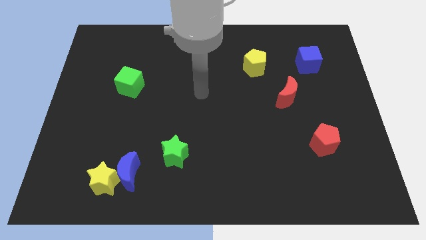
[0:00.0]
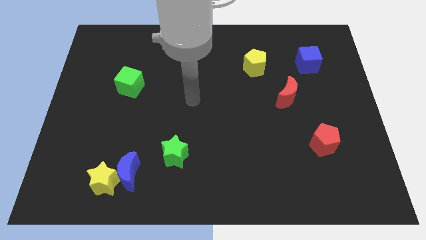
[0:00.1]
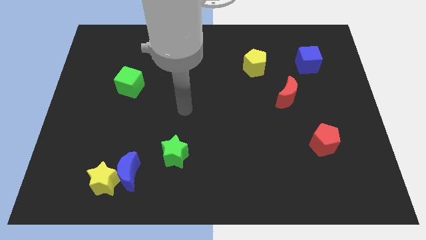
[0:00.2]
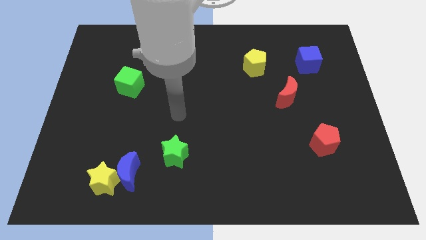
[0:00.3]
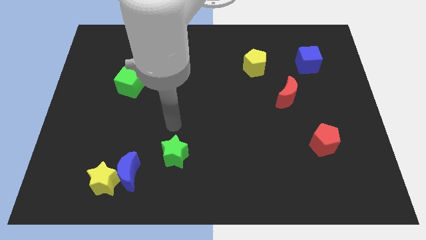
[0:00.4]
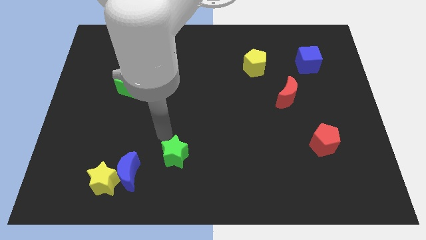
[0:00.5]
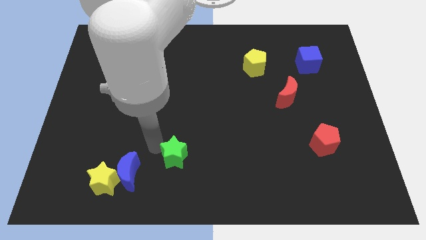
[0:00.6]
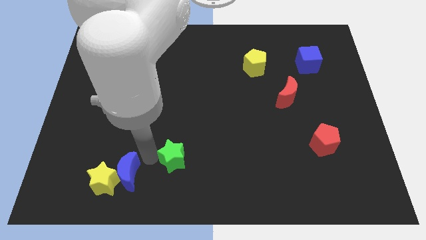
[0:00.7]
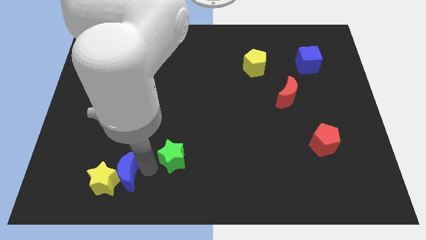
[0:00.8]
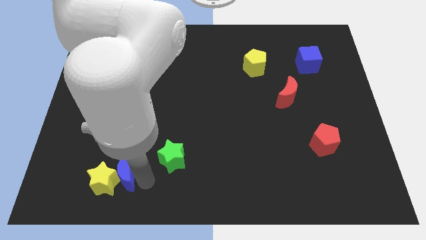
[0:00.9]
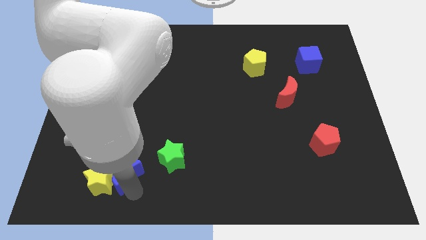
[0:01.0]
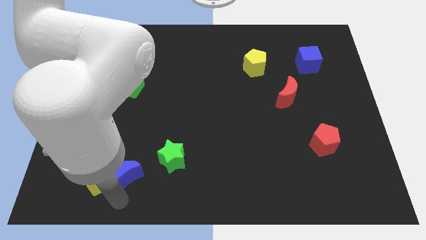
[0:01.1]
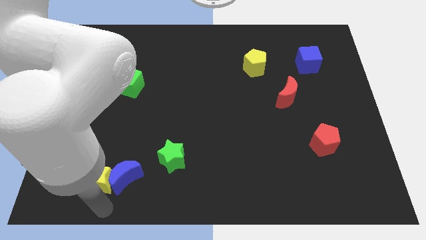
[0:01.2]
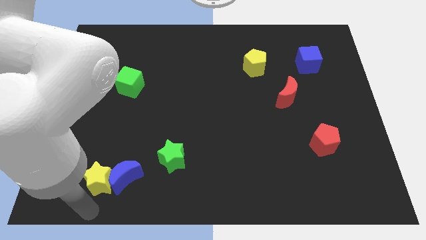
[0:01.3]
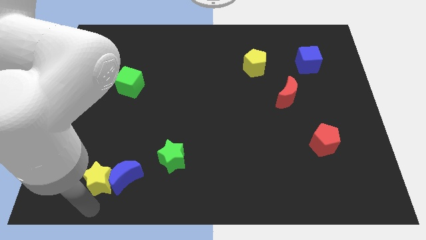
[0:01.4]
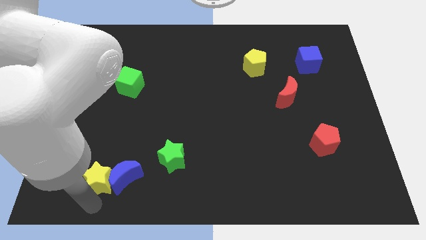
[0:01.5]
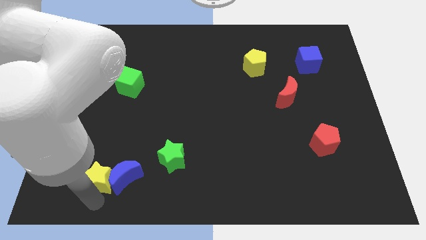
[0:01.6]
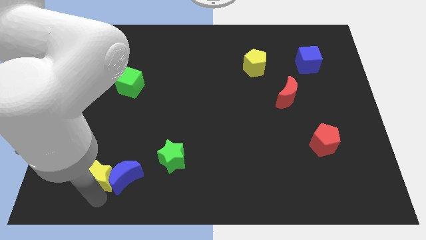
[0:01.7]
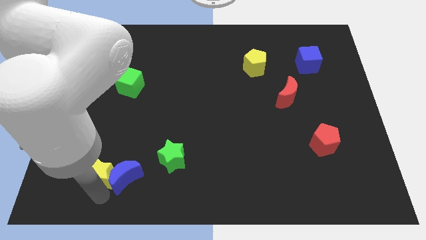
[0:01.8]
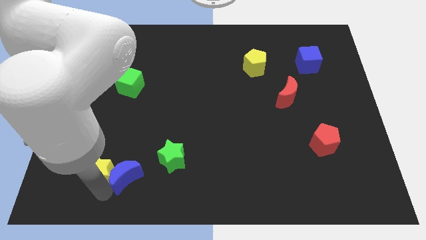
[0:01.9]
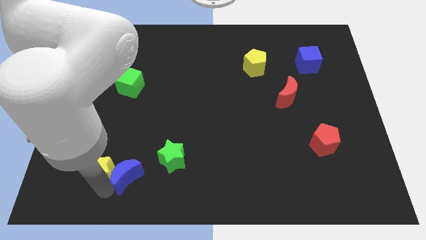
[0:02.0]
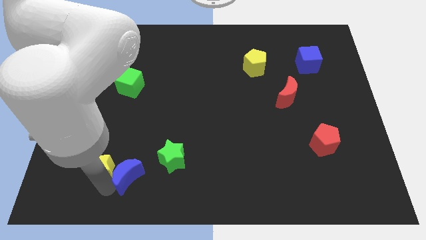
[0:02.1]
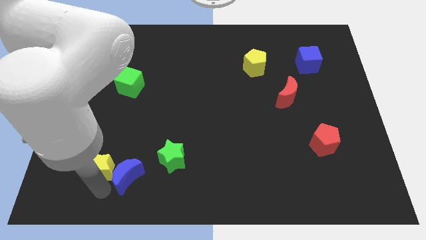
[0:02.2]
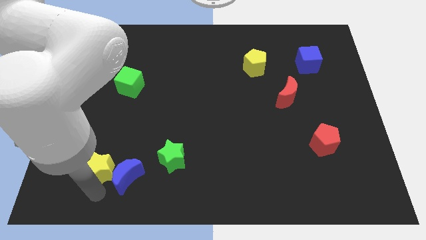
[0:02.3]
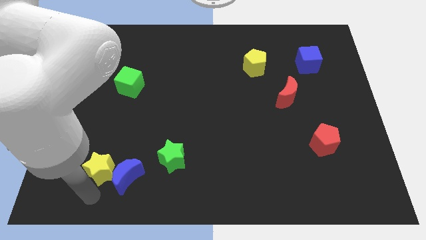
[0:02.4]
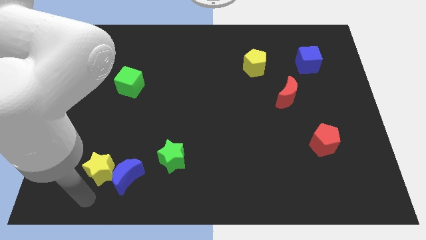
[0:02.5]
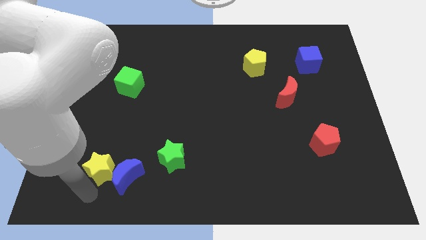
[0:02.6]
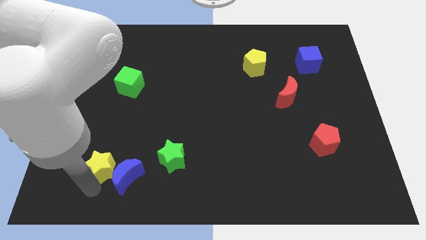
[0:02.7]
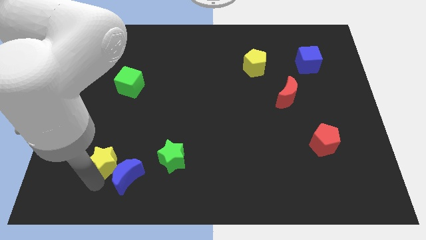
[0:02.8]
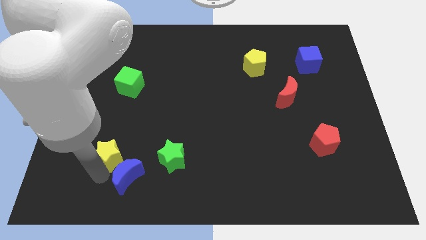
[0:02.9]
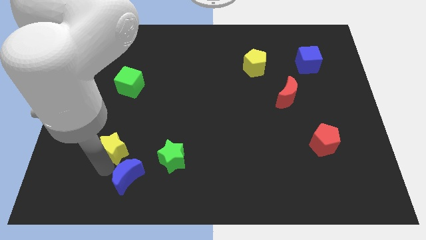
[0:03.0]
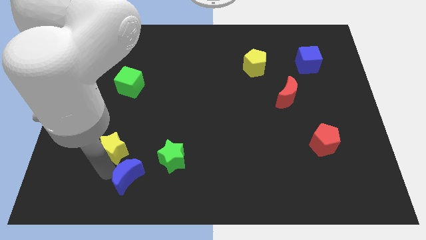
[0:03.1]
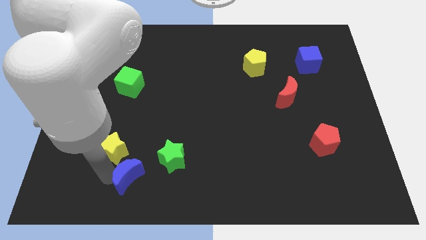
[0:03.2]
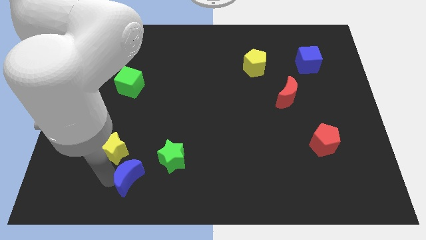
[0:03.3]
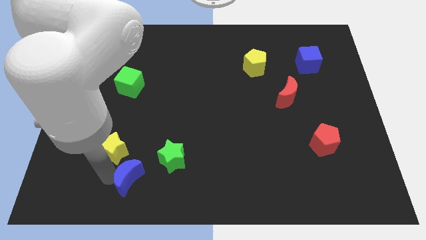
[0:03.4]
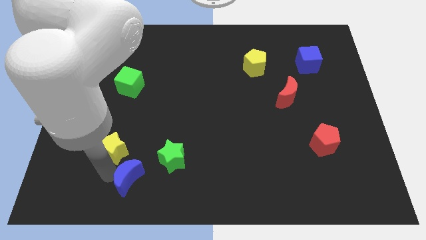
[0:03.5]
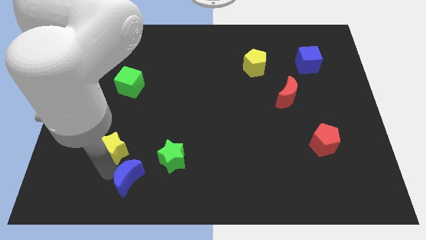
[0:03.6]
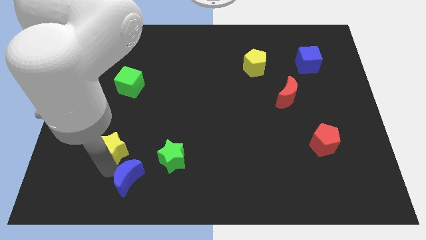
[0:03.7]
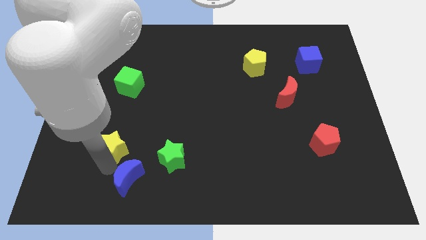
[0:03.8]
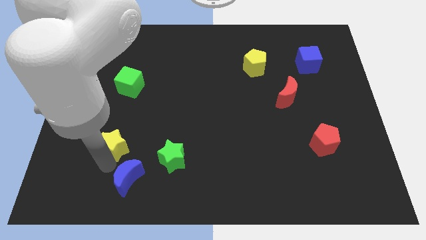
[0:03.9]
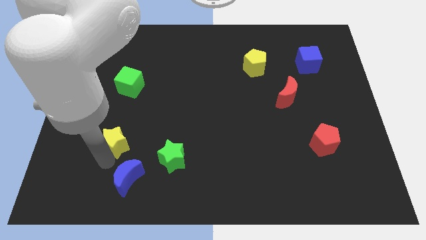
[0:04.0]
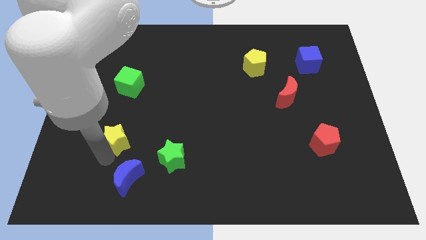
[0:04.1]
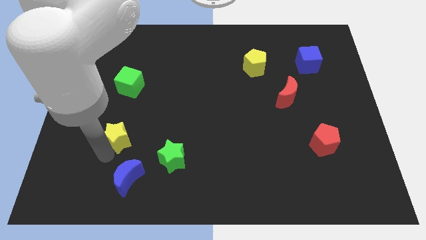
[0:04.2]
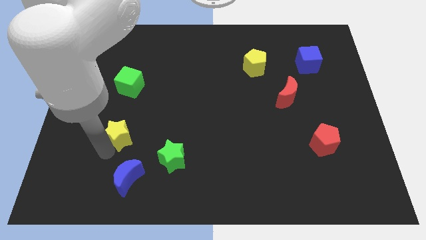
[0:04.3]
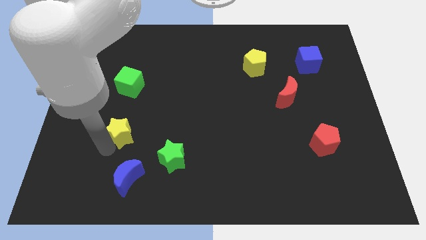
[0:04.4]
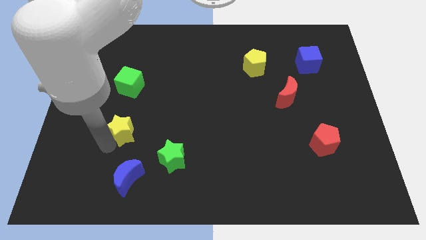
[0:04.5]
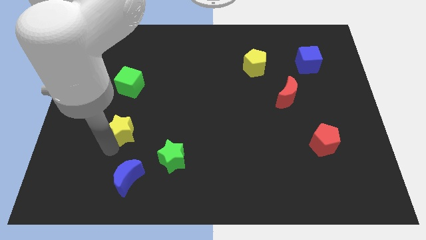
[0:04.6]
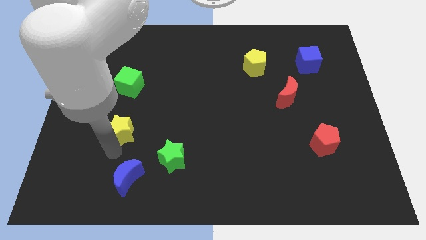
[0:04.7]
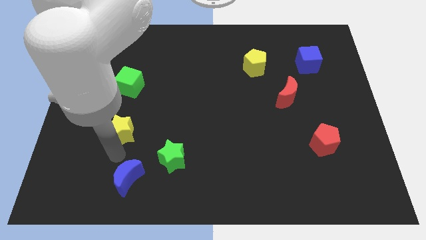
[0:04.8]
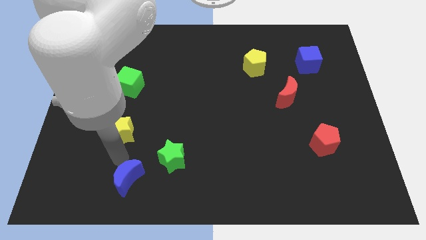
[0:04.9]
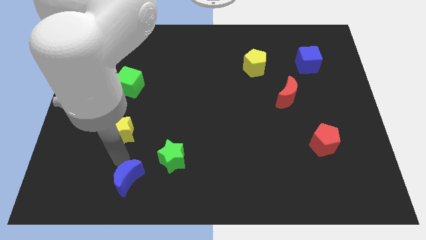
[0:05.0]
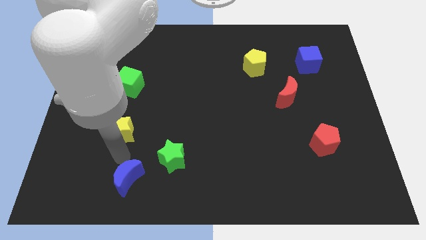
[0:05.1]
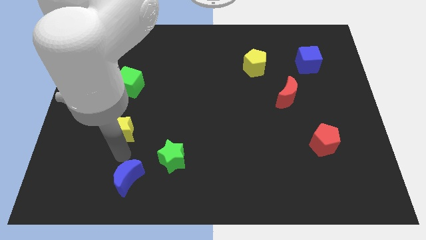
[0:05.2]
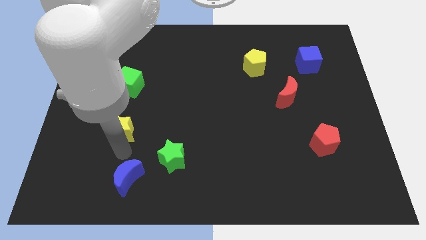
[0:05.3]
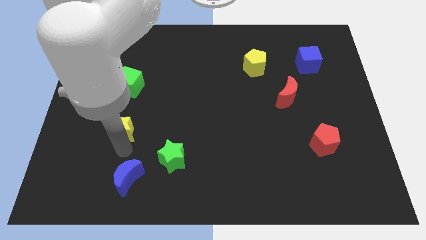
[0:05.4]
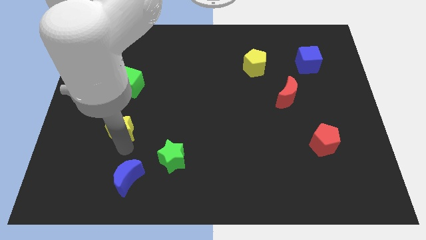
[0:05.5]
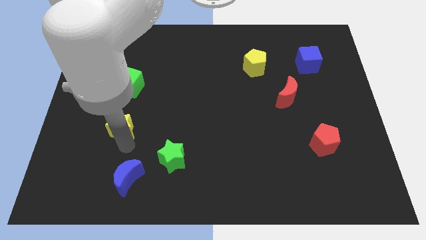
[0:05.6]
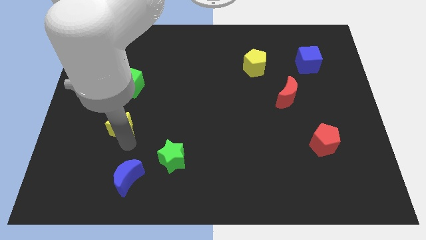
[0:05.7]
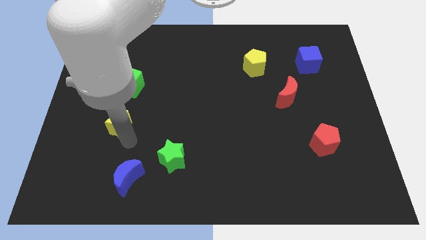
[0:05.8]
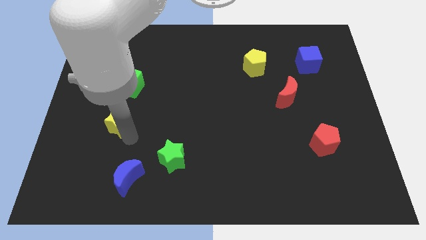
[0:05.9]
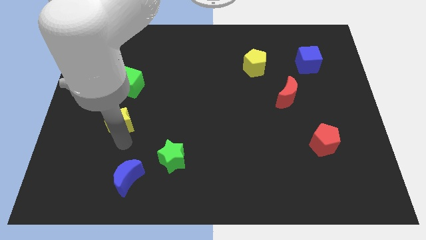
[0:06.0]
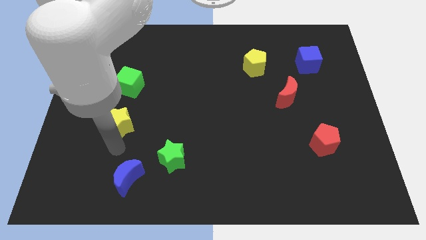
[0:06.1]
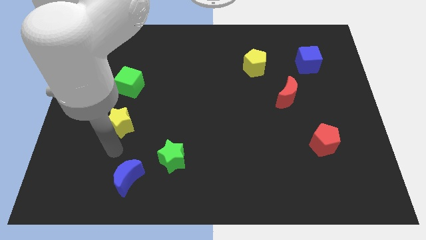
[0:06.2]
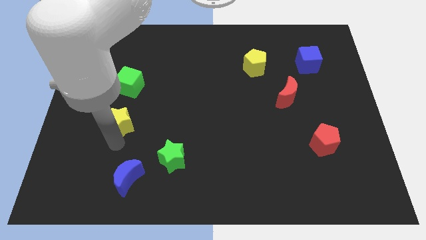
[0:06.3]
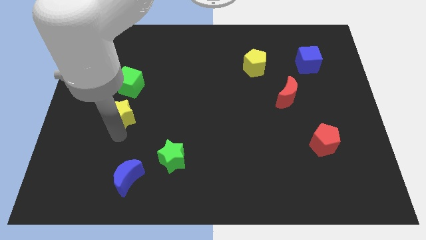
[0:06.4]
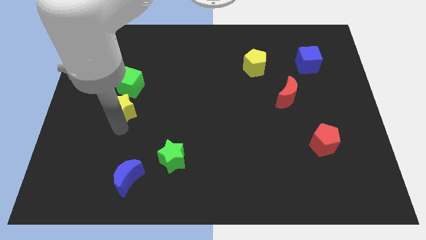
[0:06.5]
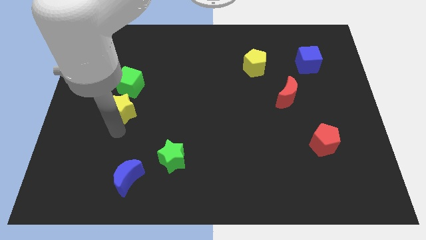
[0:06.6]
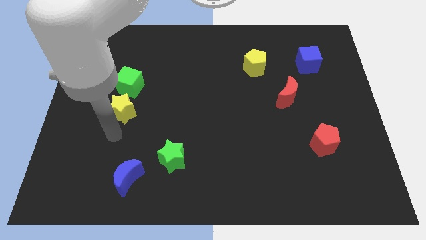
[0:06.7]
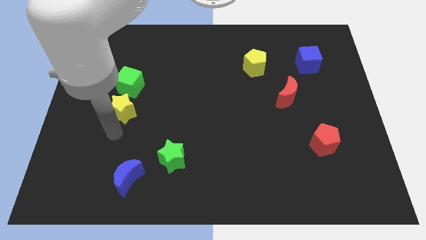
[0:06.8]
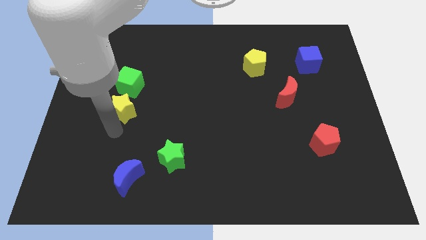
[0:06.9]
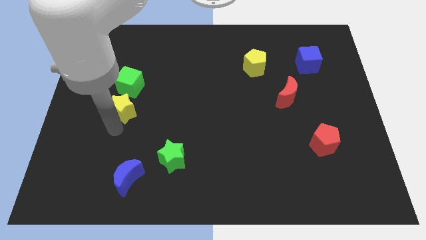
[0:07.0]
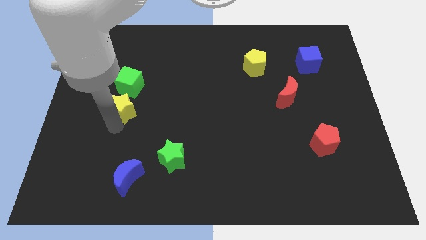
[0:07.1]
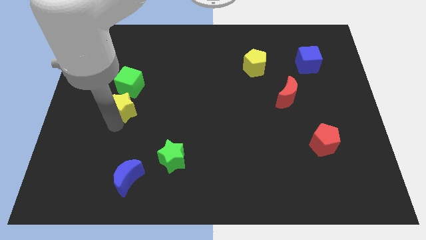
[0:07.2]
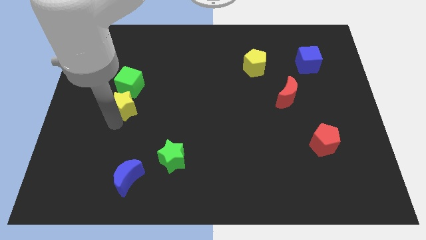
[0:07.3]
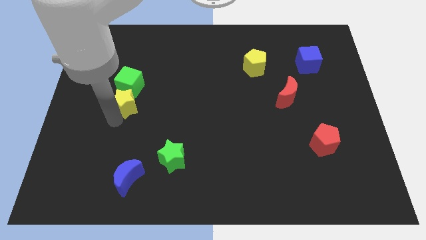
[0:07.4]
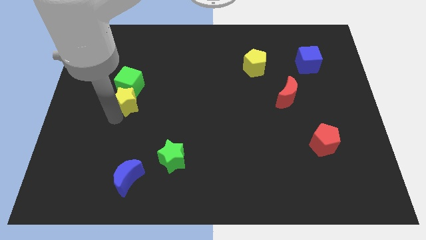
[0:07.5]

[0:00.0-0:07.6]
slide the yellow star next to the green cube
